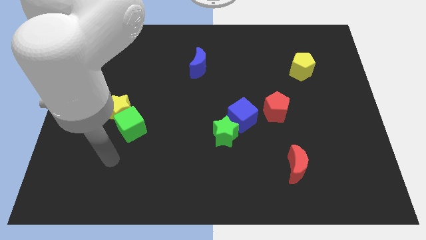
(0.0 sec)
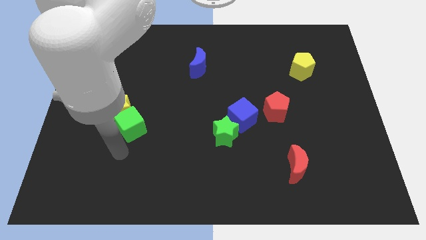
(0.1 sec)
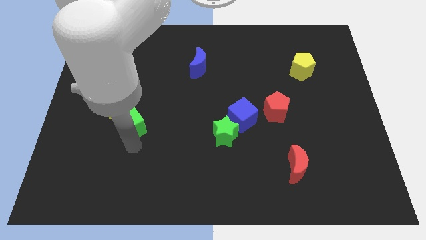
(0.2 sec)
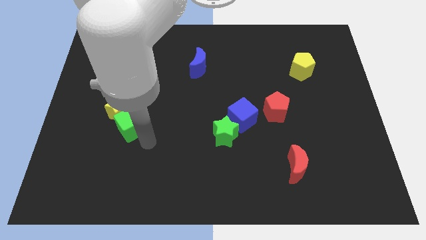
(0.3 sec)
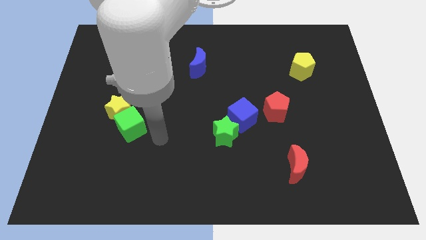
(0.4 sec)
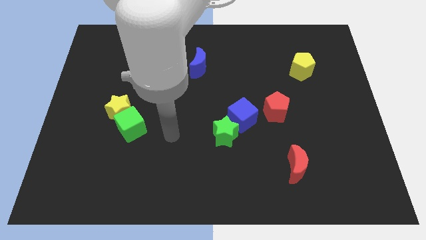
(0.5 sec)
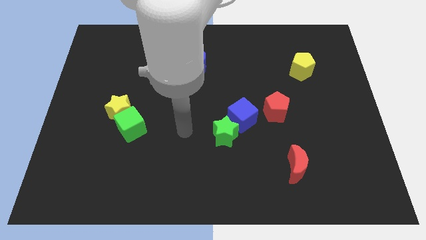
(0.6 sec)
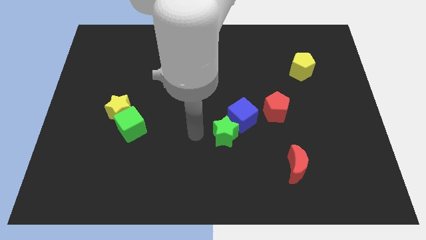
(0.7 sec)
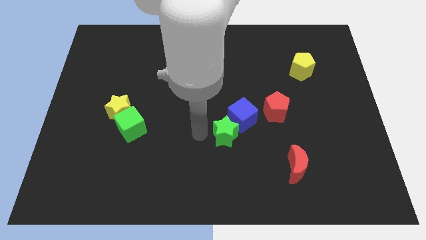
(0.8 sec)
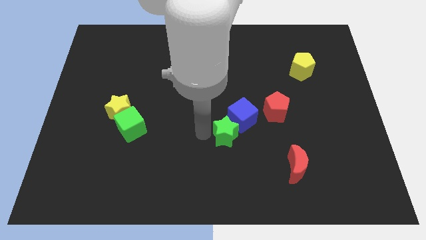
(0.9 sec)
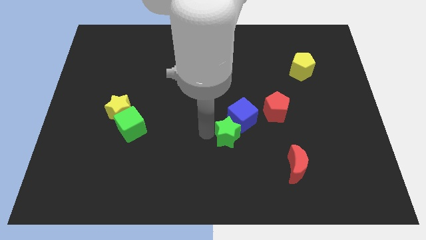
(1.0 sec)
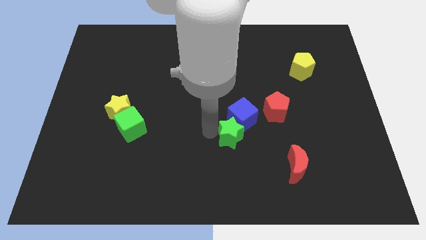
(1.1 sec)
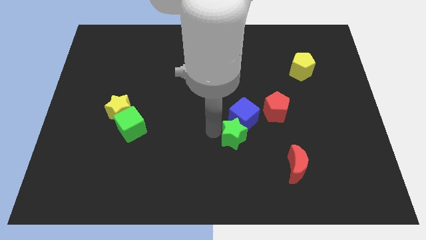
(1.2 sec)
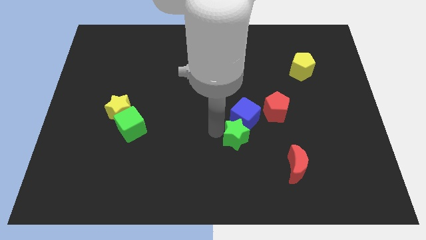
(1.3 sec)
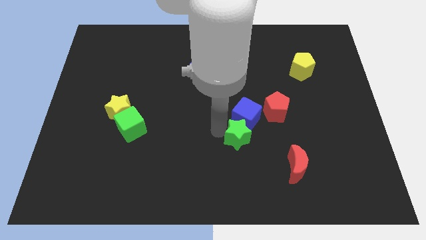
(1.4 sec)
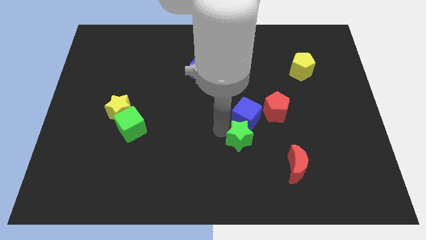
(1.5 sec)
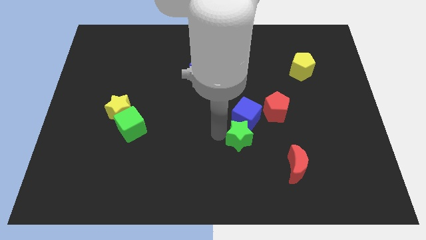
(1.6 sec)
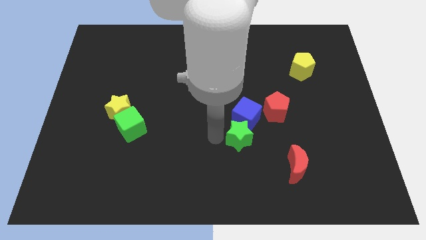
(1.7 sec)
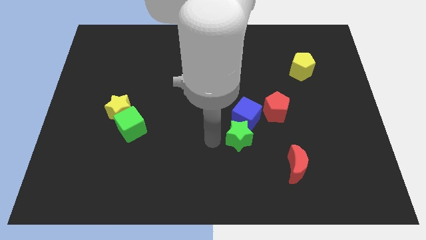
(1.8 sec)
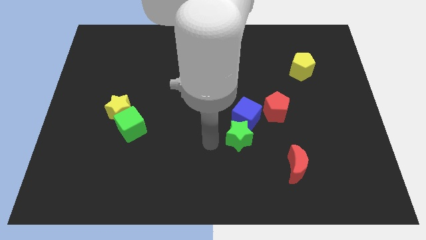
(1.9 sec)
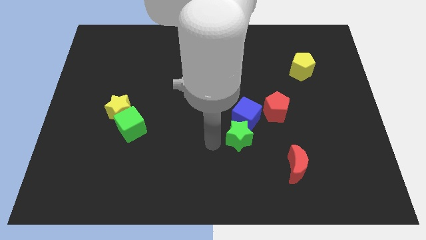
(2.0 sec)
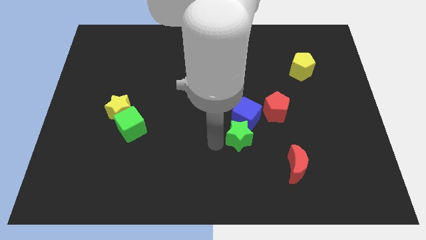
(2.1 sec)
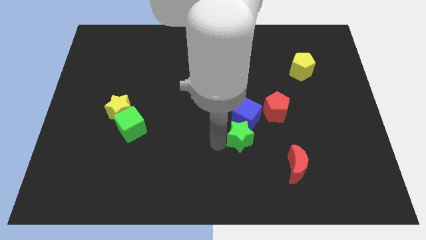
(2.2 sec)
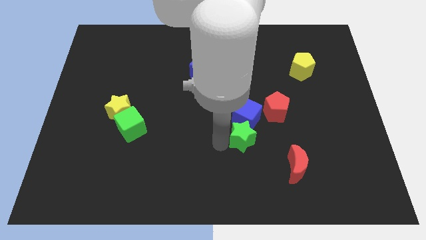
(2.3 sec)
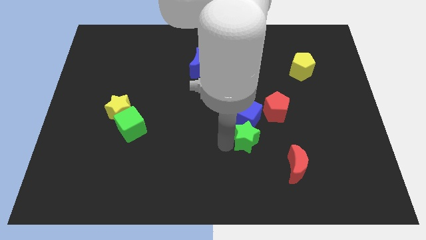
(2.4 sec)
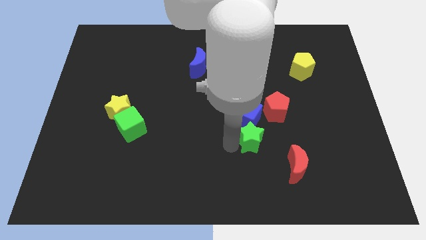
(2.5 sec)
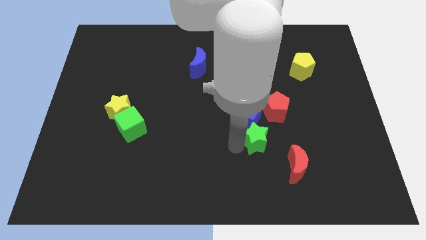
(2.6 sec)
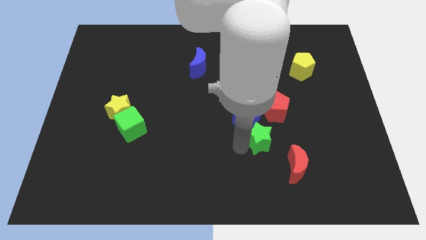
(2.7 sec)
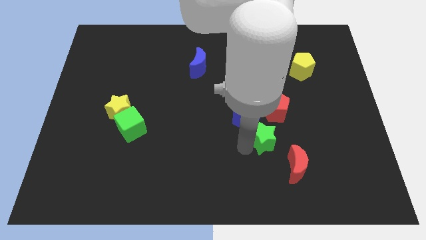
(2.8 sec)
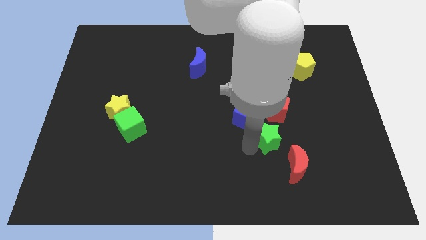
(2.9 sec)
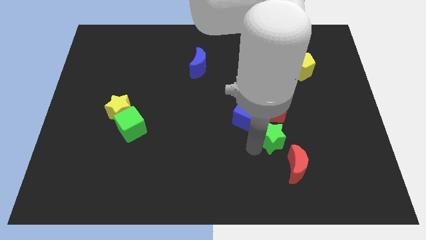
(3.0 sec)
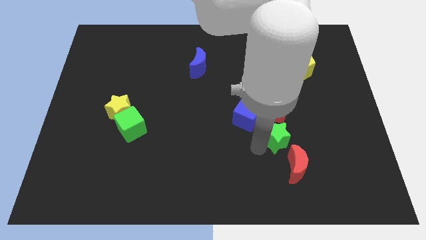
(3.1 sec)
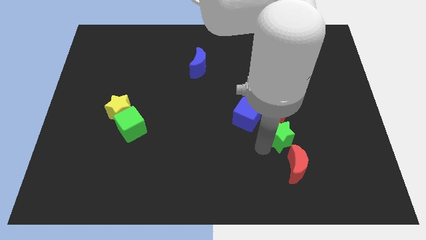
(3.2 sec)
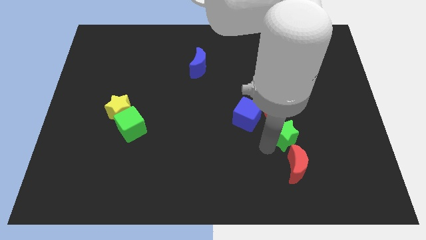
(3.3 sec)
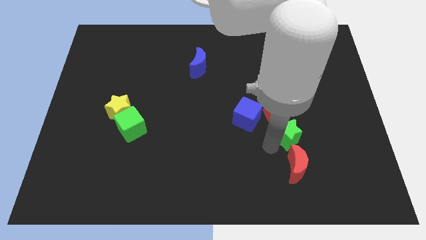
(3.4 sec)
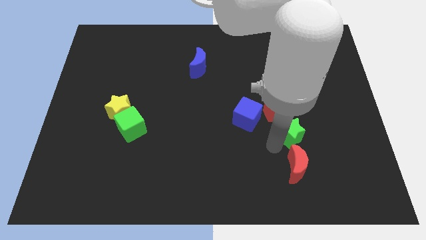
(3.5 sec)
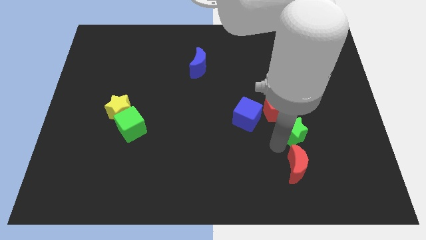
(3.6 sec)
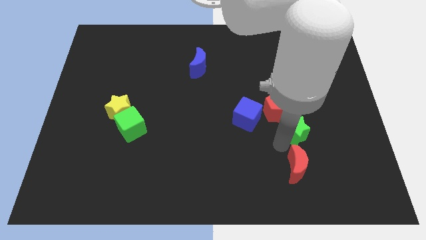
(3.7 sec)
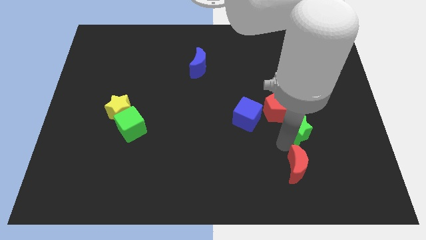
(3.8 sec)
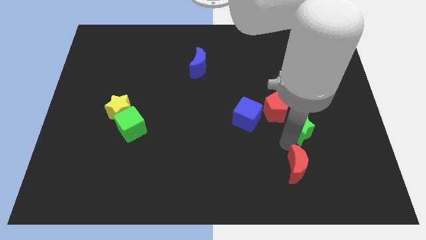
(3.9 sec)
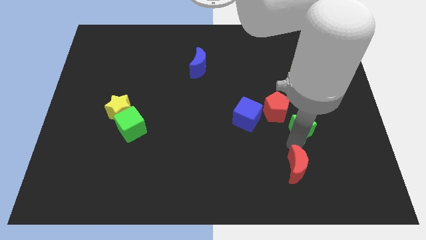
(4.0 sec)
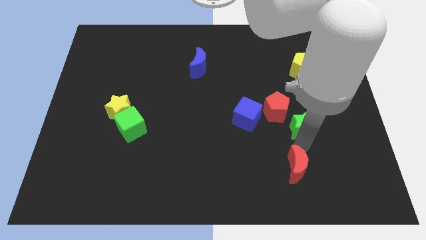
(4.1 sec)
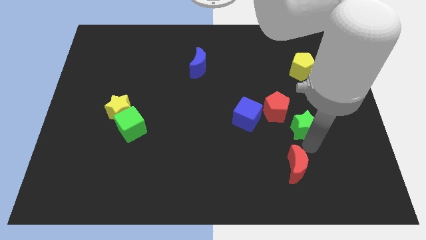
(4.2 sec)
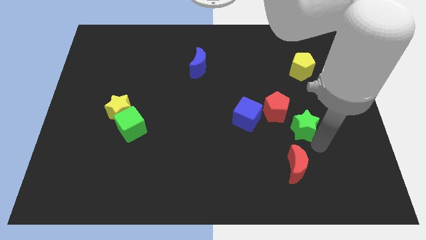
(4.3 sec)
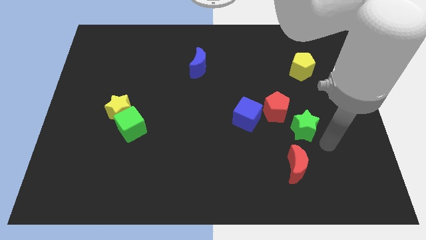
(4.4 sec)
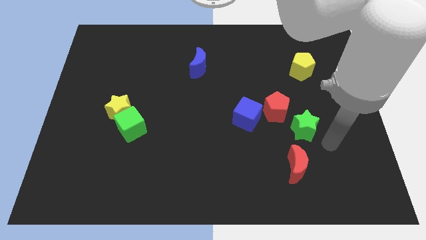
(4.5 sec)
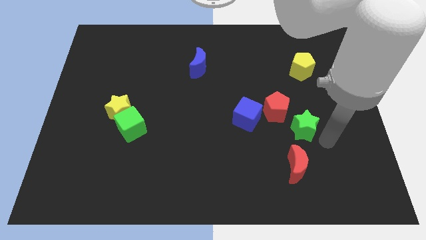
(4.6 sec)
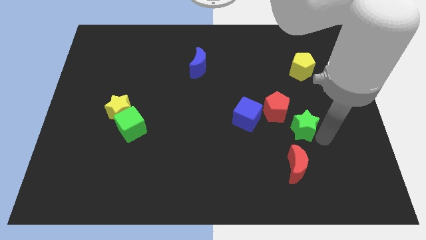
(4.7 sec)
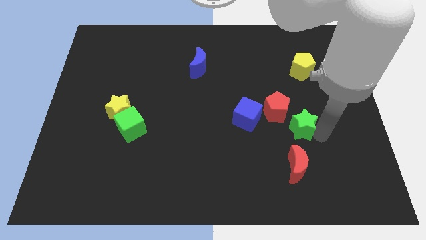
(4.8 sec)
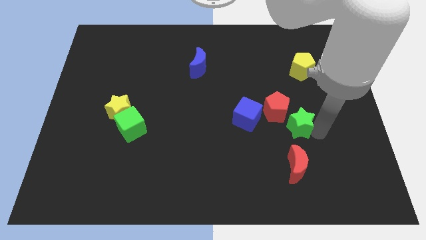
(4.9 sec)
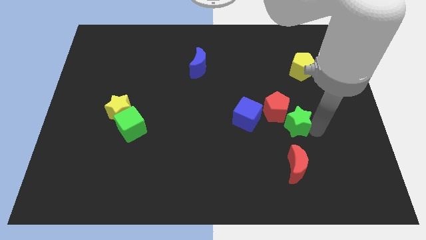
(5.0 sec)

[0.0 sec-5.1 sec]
move the green star towards the red pentagon

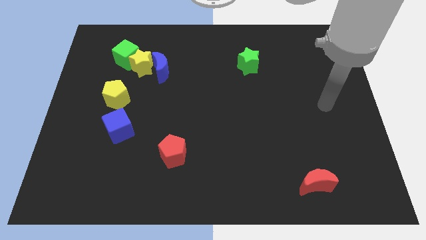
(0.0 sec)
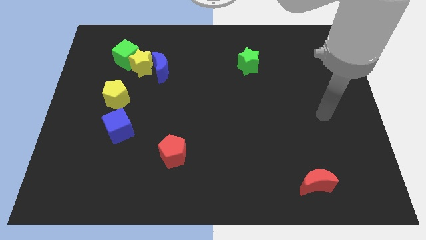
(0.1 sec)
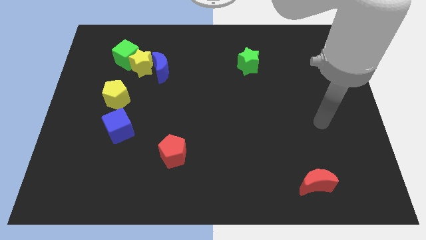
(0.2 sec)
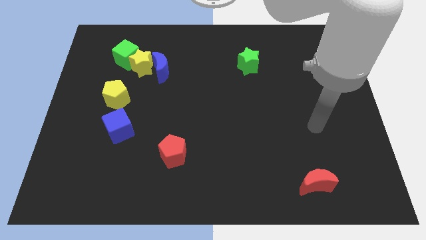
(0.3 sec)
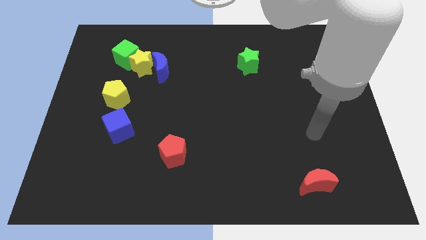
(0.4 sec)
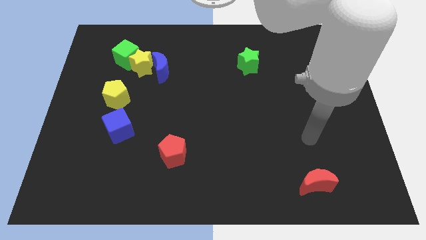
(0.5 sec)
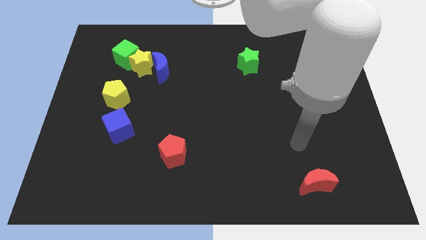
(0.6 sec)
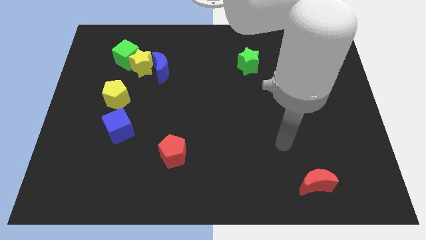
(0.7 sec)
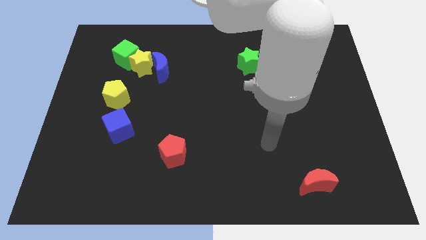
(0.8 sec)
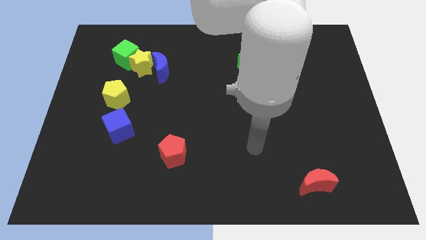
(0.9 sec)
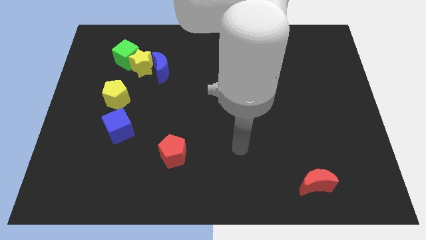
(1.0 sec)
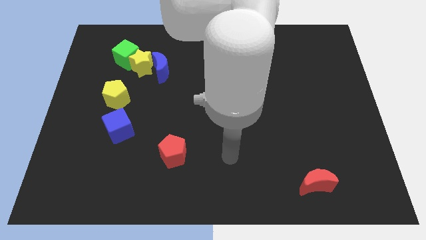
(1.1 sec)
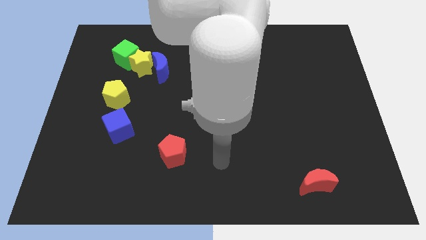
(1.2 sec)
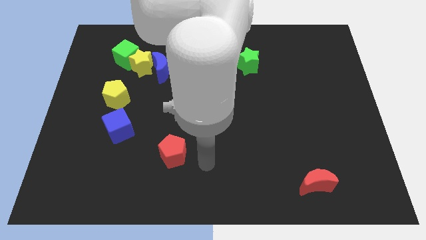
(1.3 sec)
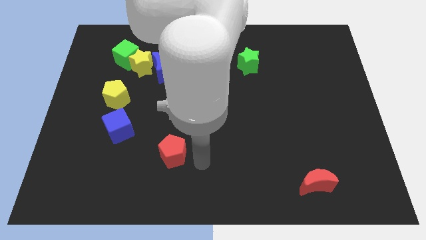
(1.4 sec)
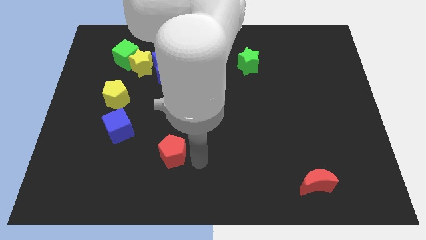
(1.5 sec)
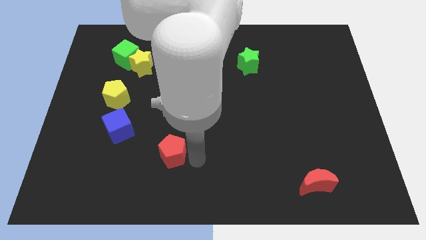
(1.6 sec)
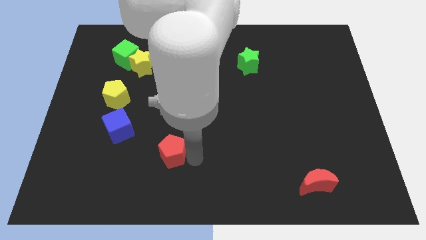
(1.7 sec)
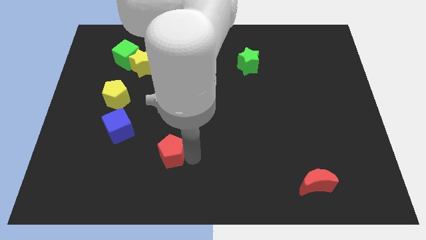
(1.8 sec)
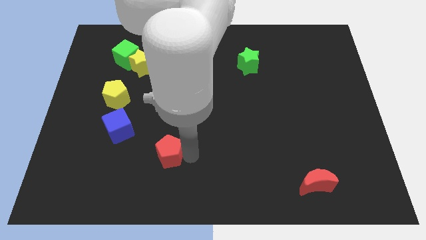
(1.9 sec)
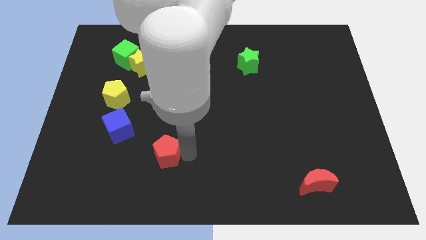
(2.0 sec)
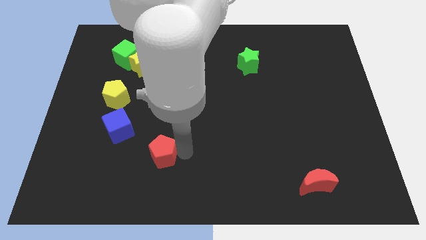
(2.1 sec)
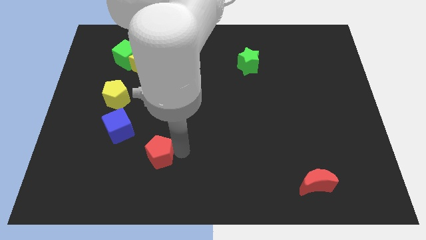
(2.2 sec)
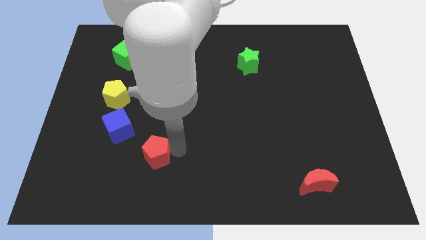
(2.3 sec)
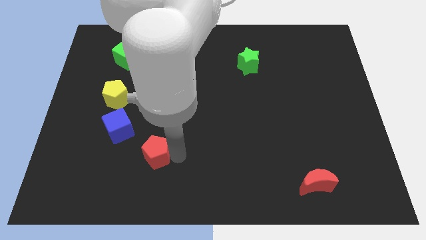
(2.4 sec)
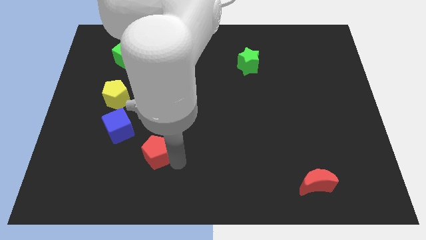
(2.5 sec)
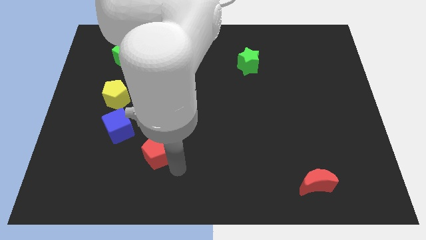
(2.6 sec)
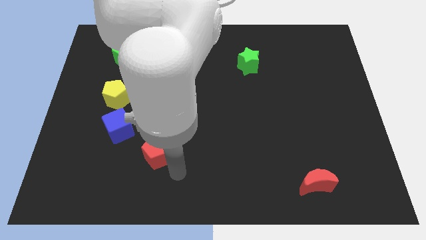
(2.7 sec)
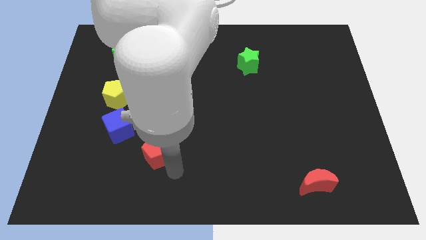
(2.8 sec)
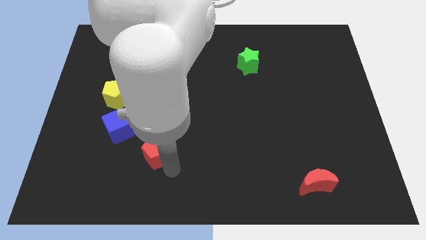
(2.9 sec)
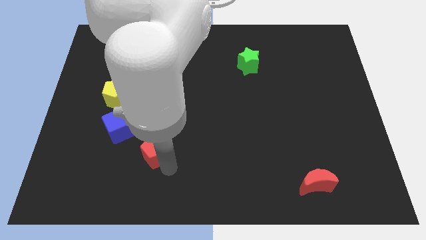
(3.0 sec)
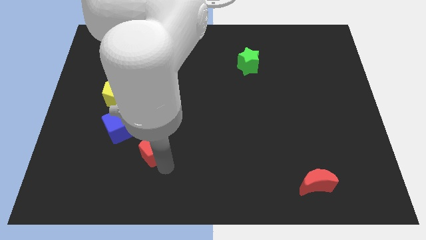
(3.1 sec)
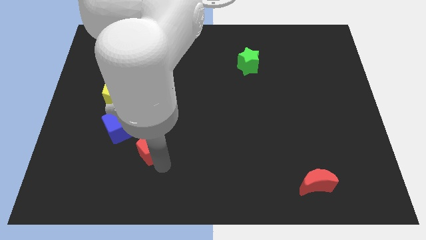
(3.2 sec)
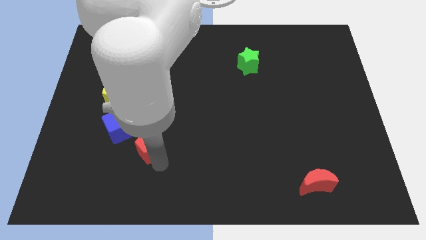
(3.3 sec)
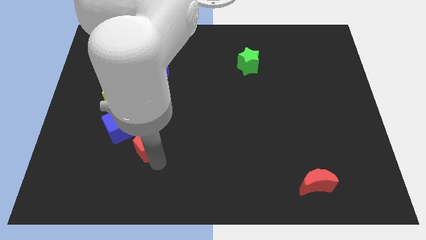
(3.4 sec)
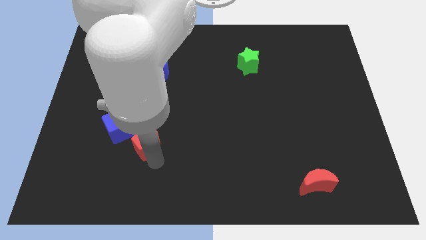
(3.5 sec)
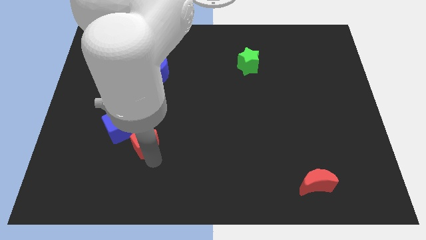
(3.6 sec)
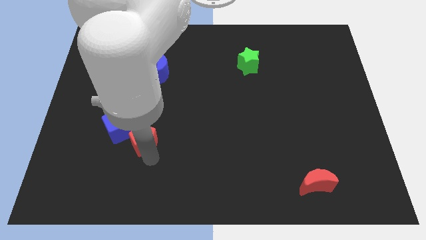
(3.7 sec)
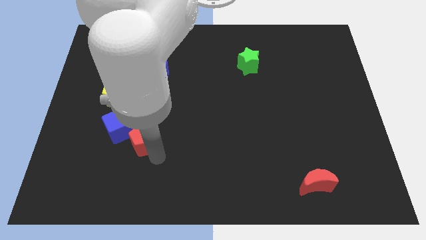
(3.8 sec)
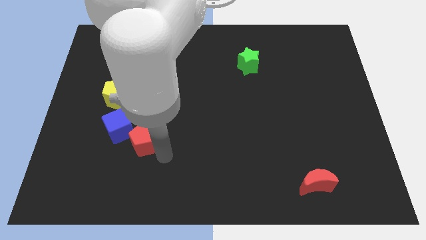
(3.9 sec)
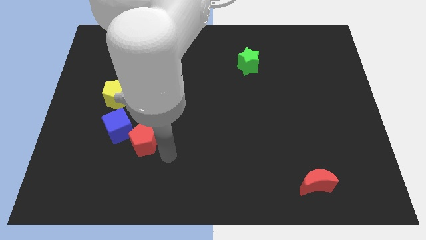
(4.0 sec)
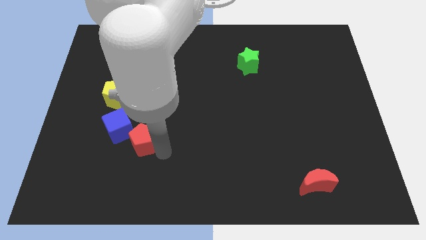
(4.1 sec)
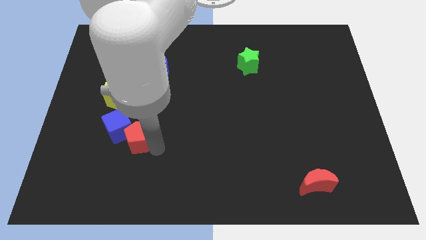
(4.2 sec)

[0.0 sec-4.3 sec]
put the red pentagon close to the blue cube
